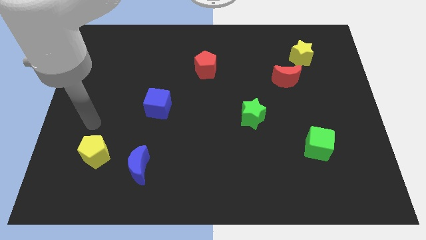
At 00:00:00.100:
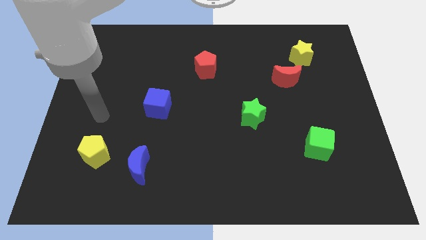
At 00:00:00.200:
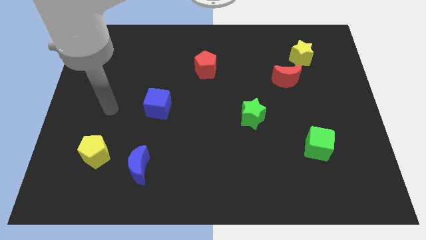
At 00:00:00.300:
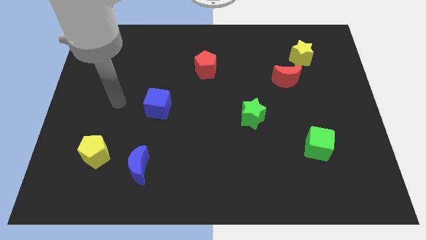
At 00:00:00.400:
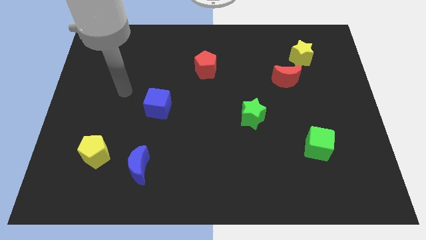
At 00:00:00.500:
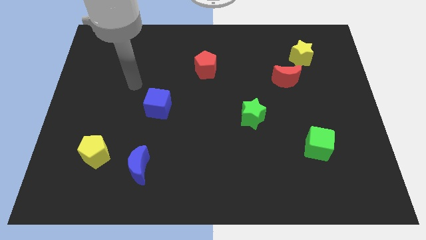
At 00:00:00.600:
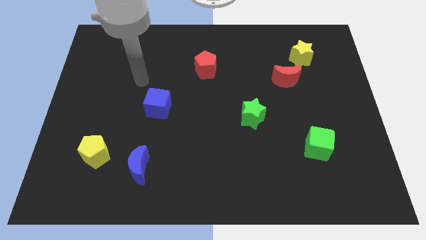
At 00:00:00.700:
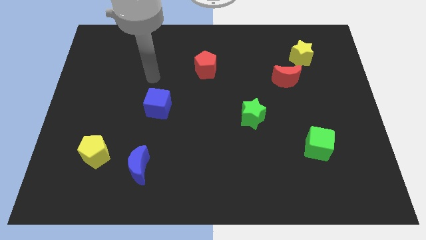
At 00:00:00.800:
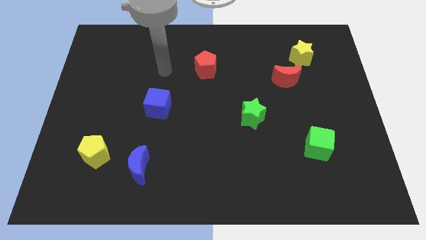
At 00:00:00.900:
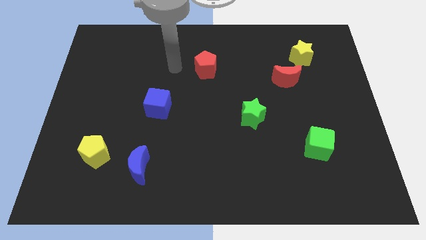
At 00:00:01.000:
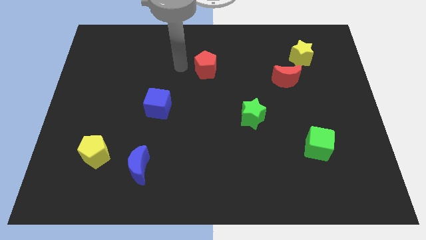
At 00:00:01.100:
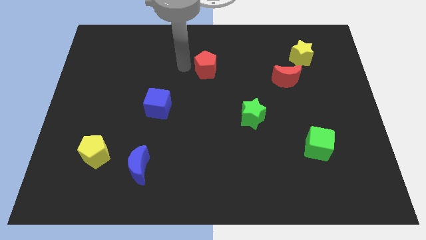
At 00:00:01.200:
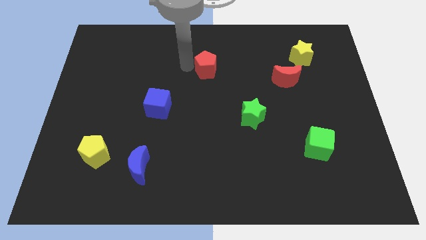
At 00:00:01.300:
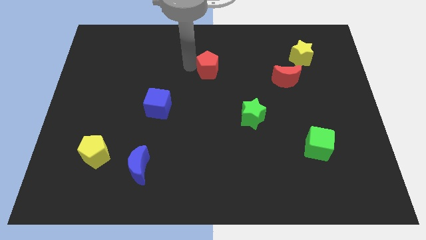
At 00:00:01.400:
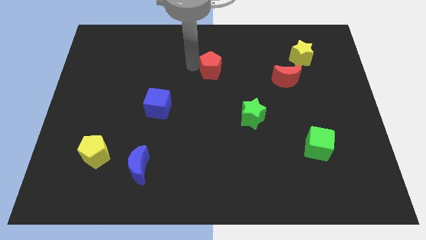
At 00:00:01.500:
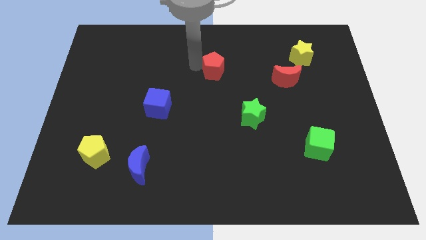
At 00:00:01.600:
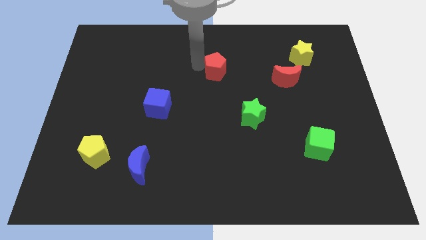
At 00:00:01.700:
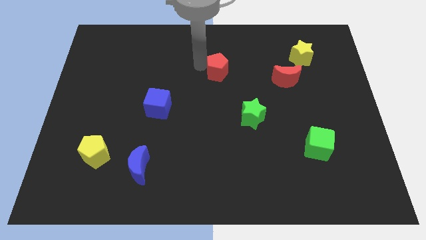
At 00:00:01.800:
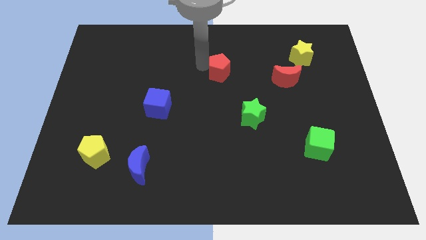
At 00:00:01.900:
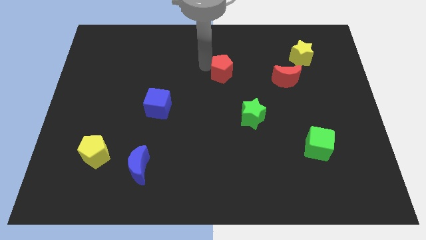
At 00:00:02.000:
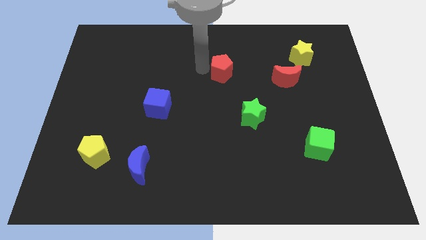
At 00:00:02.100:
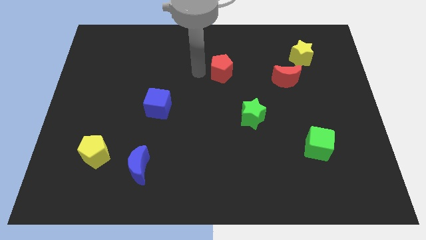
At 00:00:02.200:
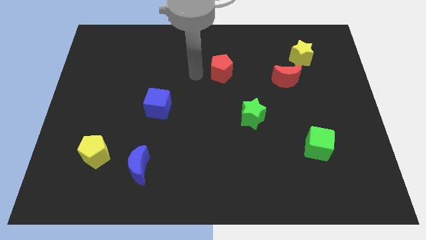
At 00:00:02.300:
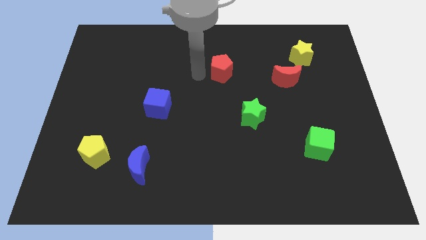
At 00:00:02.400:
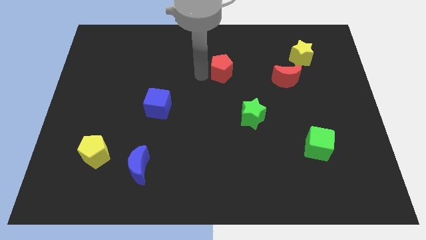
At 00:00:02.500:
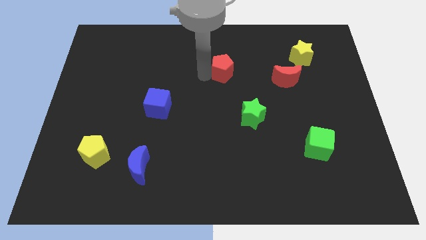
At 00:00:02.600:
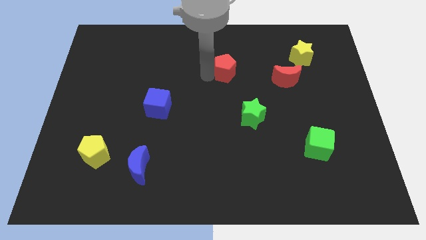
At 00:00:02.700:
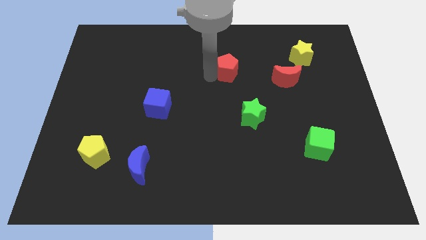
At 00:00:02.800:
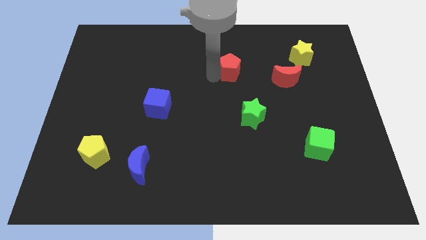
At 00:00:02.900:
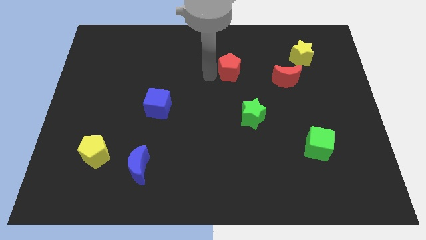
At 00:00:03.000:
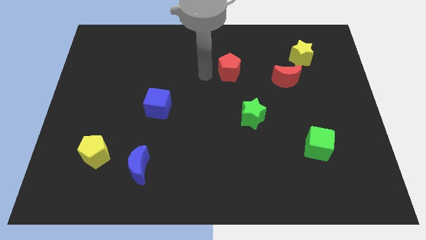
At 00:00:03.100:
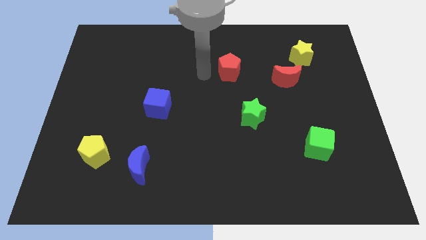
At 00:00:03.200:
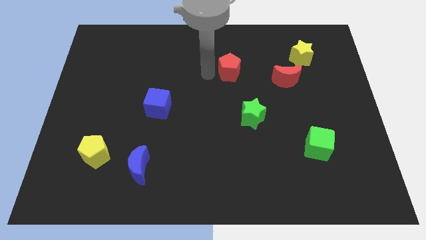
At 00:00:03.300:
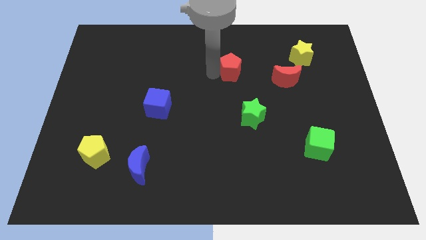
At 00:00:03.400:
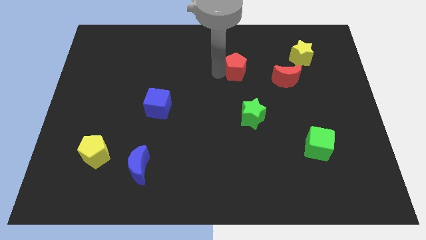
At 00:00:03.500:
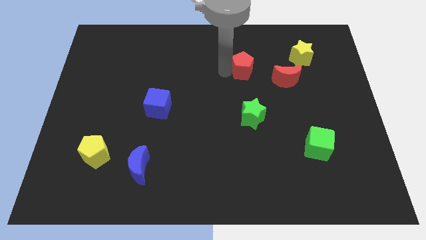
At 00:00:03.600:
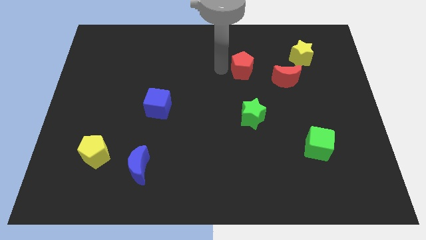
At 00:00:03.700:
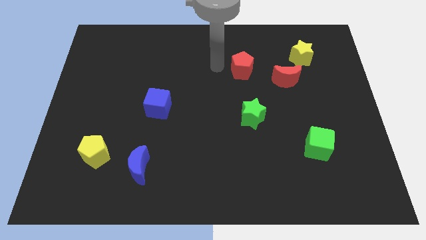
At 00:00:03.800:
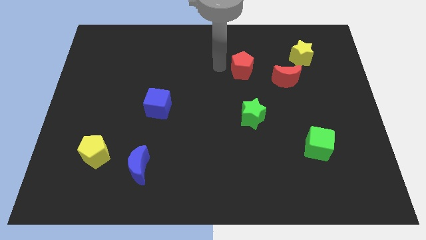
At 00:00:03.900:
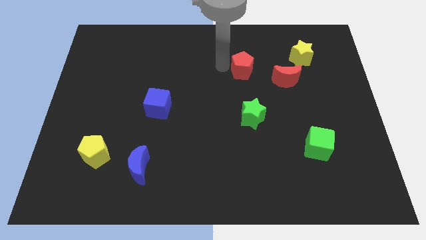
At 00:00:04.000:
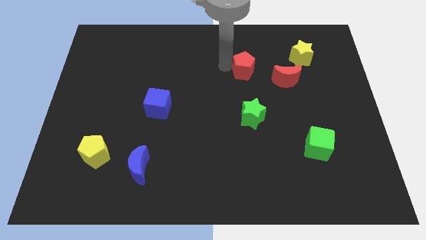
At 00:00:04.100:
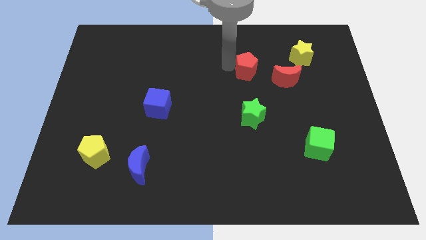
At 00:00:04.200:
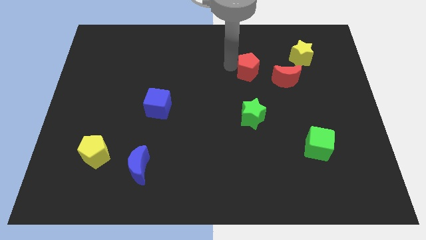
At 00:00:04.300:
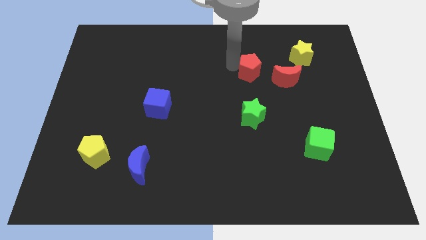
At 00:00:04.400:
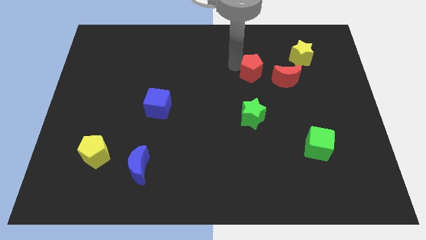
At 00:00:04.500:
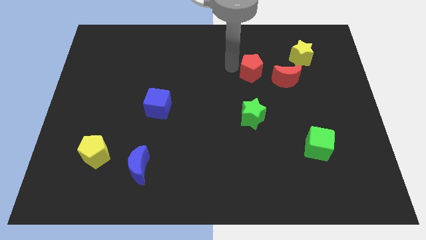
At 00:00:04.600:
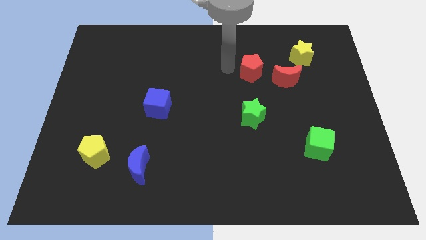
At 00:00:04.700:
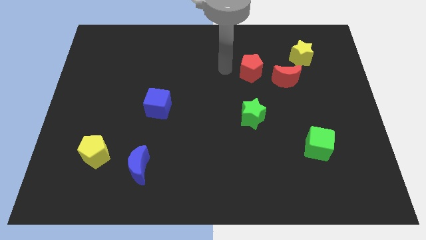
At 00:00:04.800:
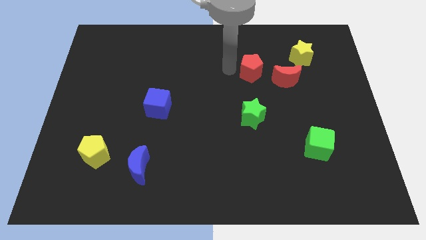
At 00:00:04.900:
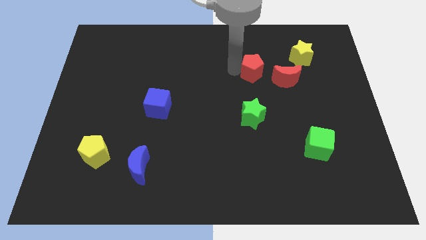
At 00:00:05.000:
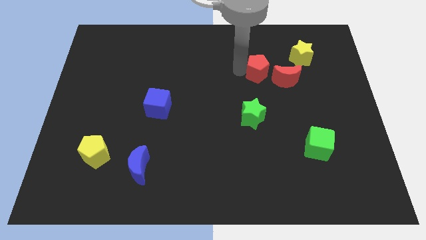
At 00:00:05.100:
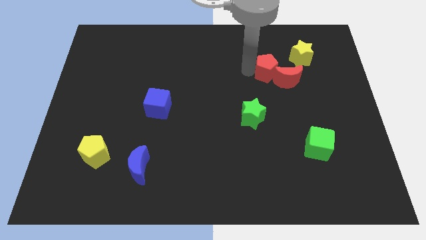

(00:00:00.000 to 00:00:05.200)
slide the red pentagon next to the red moon

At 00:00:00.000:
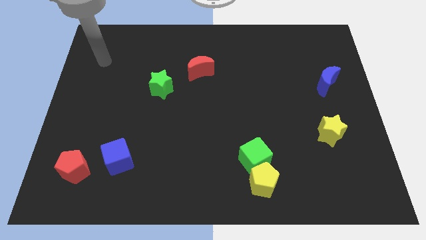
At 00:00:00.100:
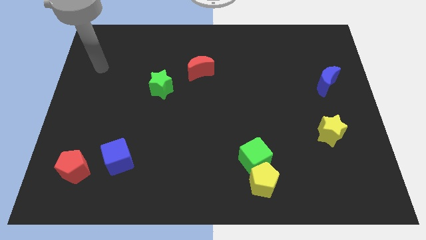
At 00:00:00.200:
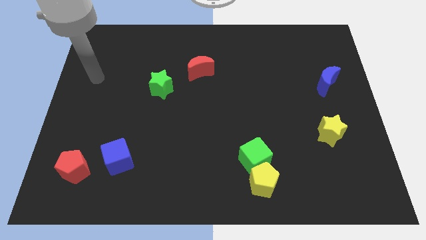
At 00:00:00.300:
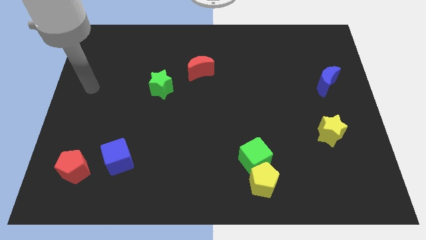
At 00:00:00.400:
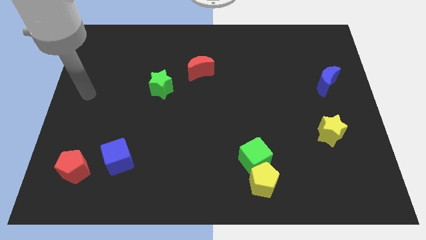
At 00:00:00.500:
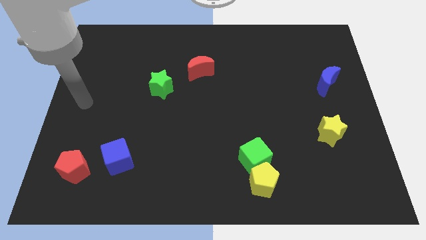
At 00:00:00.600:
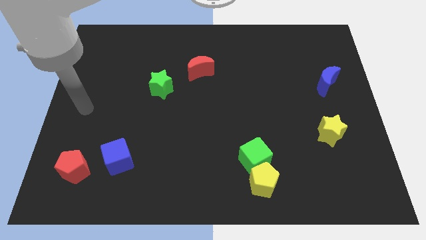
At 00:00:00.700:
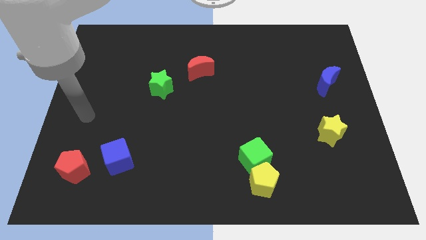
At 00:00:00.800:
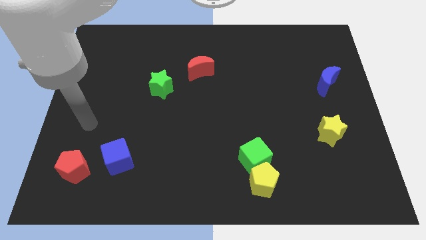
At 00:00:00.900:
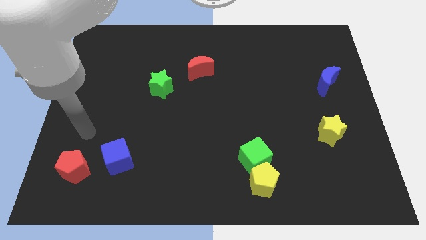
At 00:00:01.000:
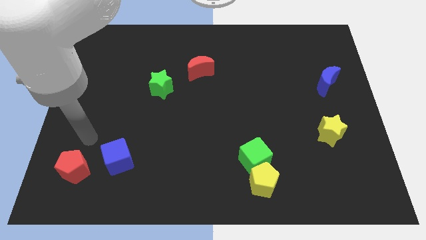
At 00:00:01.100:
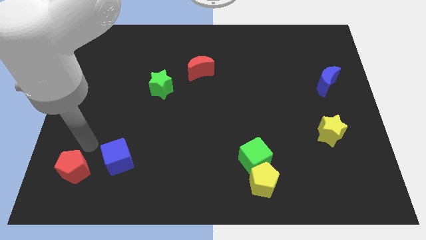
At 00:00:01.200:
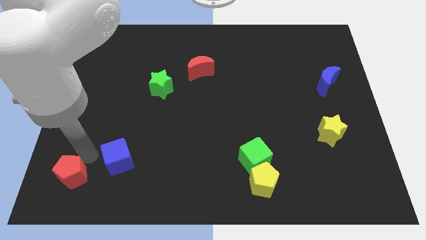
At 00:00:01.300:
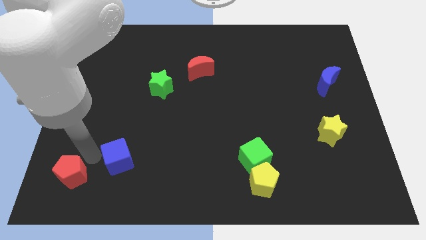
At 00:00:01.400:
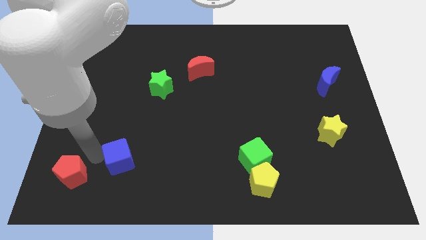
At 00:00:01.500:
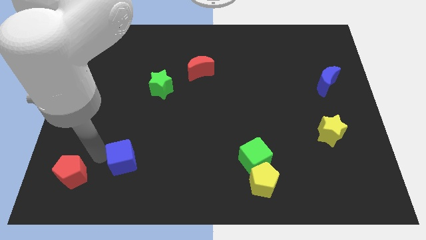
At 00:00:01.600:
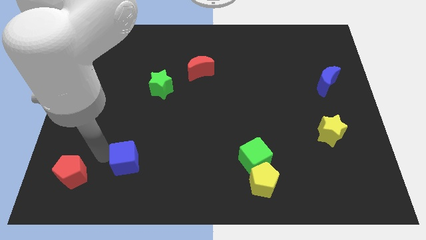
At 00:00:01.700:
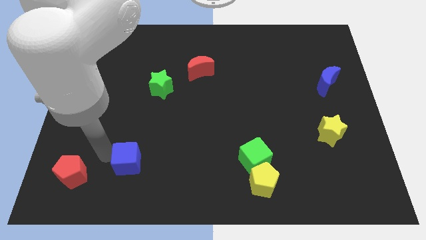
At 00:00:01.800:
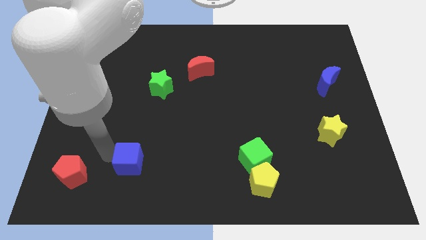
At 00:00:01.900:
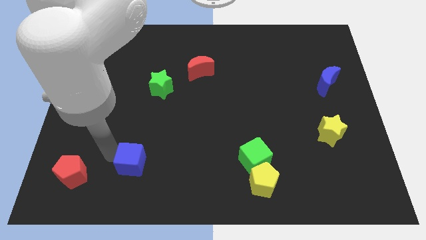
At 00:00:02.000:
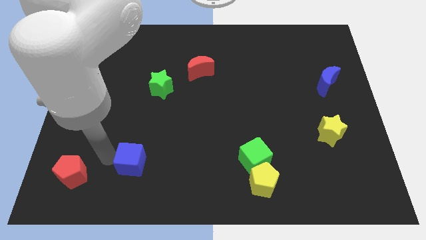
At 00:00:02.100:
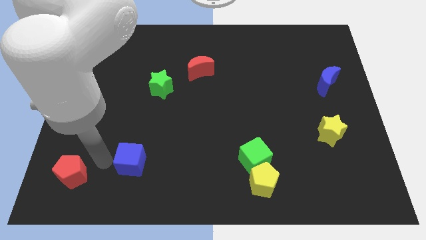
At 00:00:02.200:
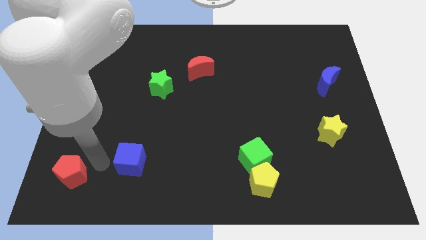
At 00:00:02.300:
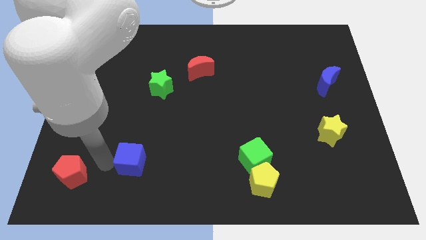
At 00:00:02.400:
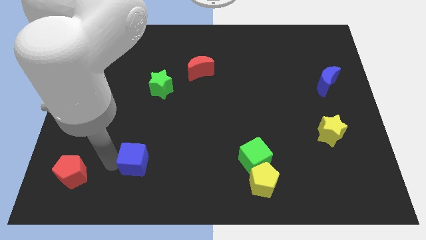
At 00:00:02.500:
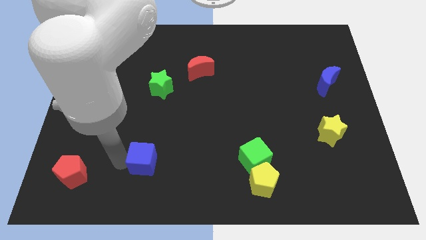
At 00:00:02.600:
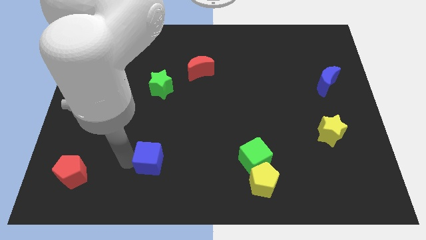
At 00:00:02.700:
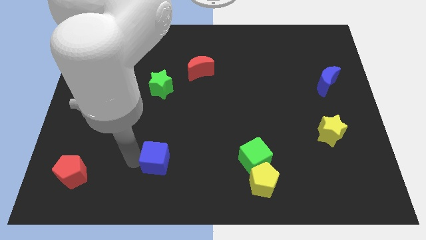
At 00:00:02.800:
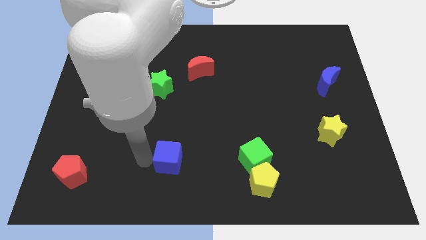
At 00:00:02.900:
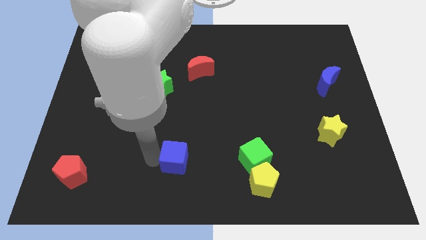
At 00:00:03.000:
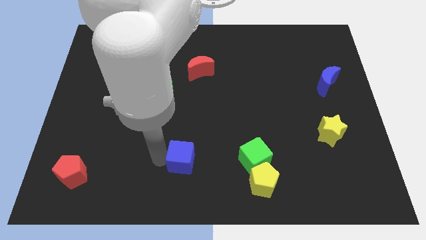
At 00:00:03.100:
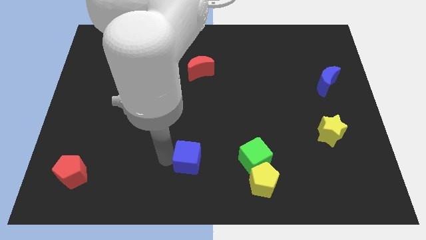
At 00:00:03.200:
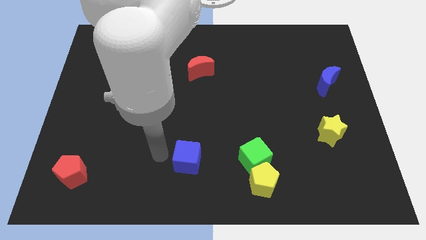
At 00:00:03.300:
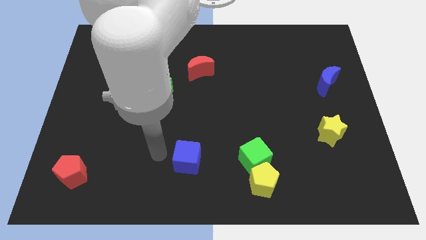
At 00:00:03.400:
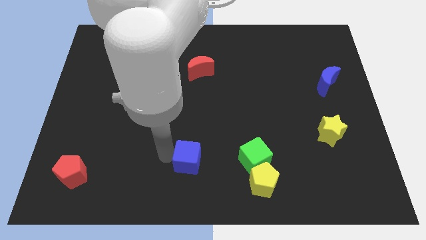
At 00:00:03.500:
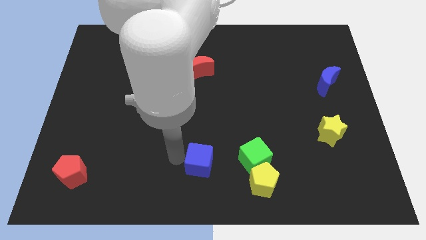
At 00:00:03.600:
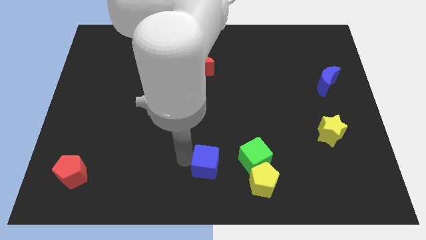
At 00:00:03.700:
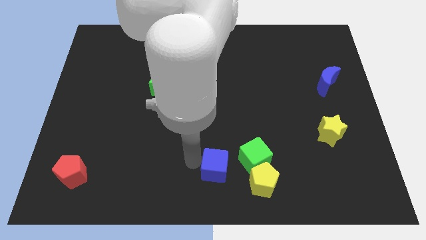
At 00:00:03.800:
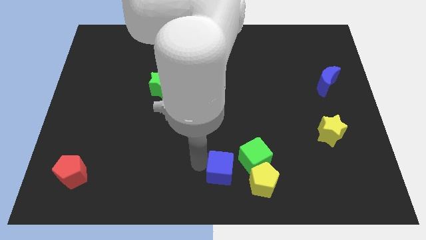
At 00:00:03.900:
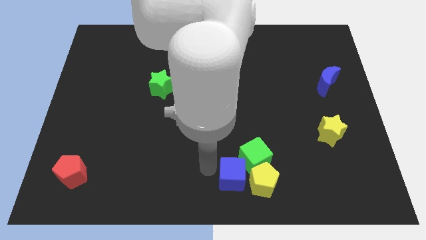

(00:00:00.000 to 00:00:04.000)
move the blue cube towards the green cube
